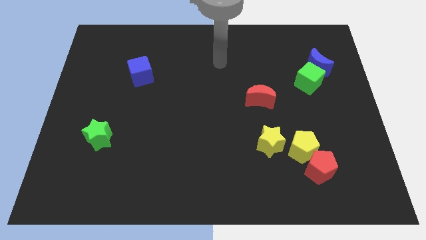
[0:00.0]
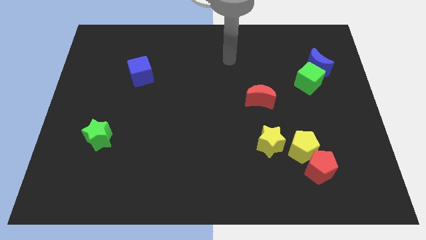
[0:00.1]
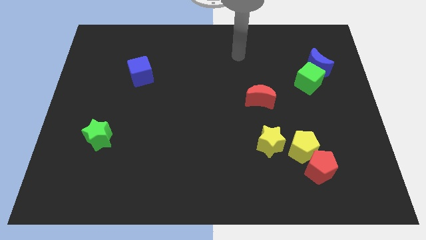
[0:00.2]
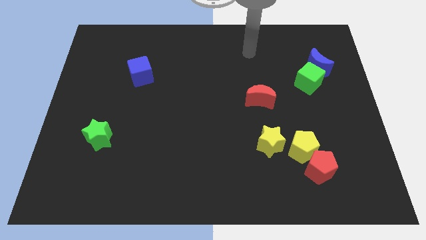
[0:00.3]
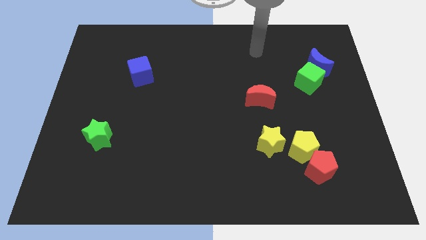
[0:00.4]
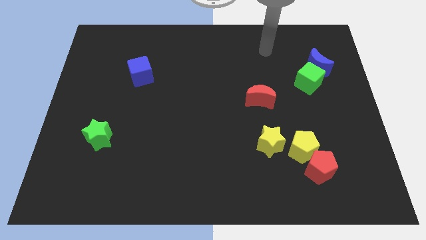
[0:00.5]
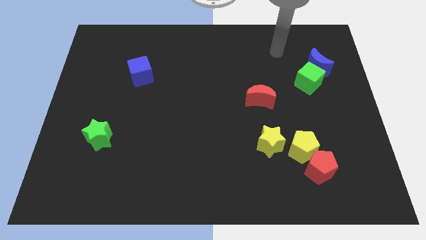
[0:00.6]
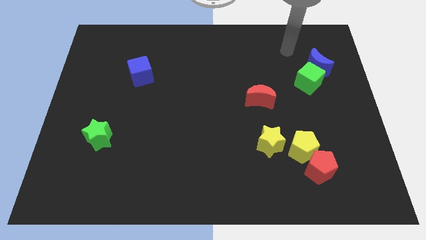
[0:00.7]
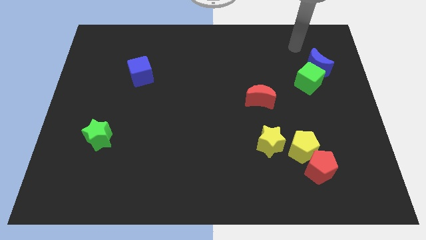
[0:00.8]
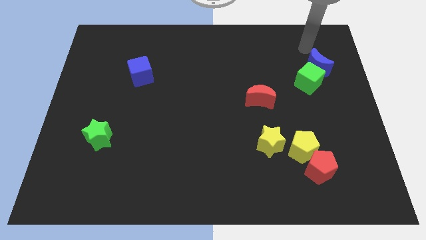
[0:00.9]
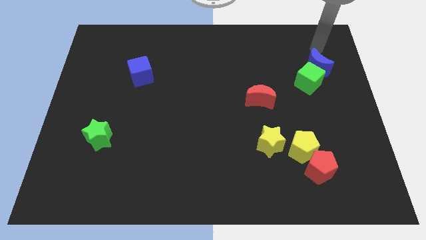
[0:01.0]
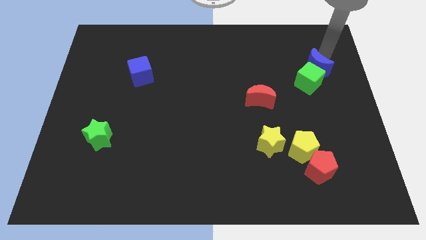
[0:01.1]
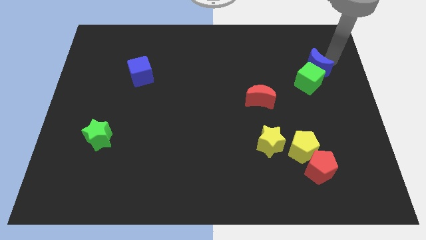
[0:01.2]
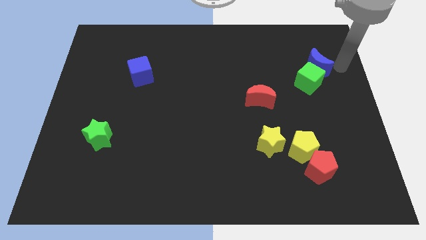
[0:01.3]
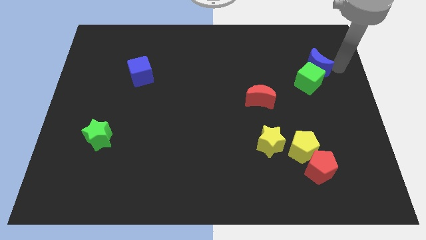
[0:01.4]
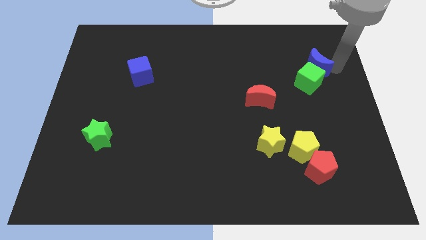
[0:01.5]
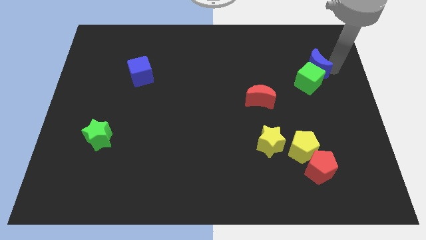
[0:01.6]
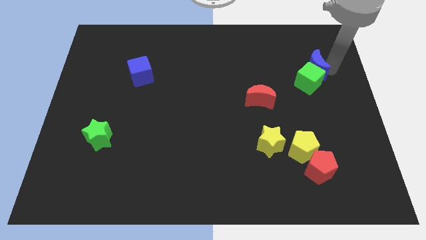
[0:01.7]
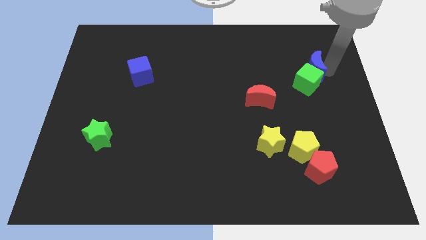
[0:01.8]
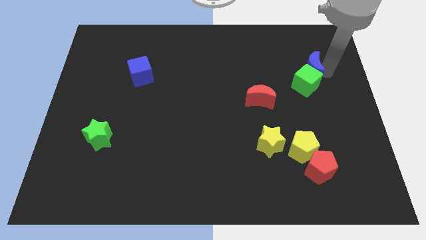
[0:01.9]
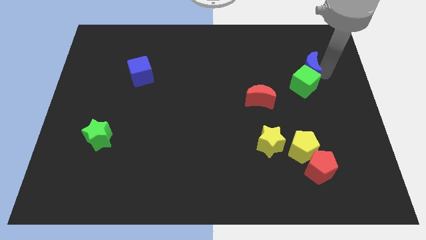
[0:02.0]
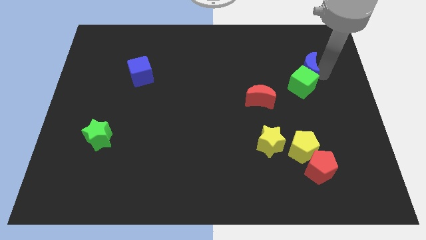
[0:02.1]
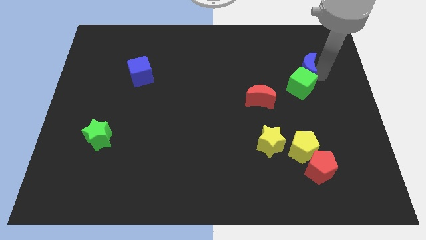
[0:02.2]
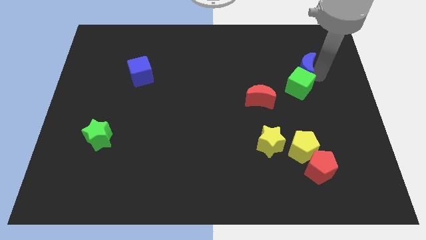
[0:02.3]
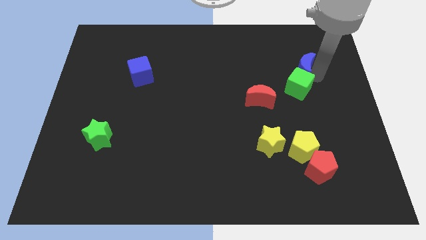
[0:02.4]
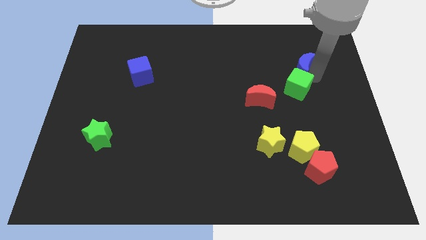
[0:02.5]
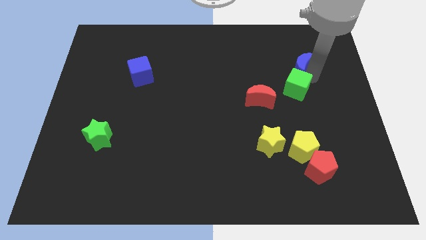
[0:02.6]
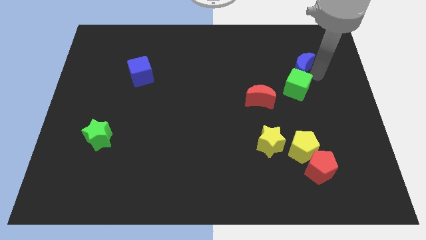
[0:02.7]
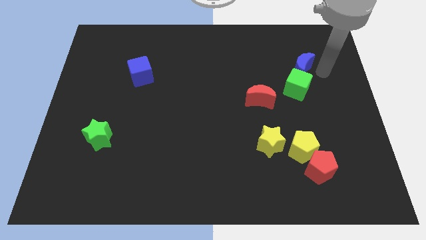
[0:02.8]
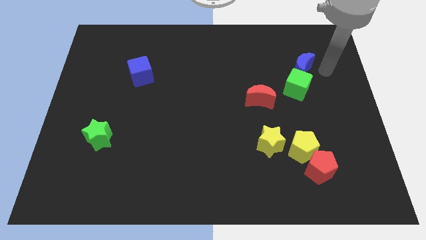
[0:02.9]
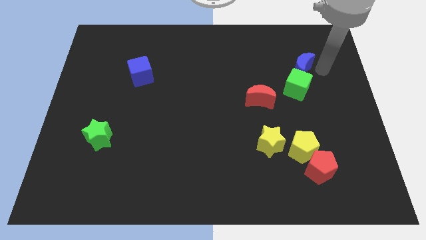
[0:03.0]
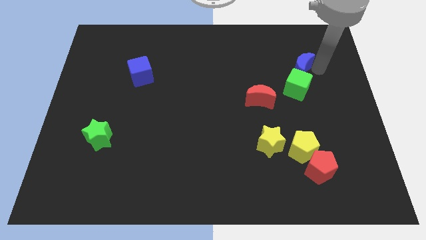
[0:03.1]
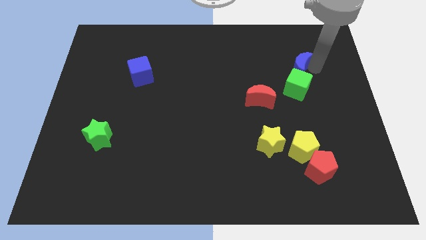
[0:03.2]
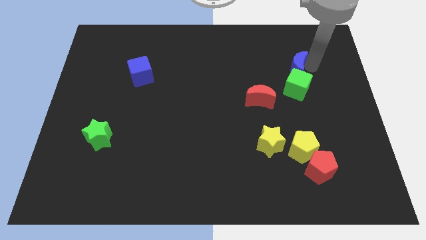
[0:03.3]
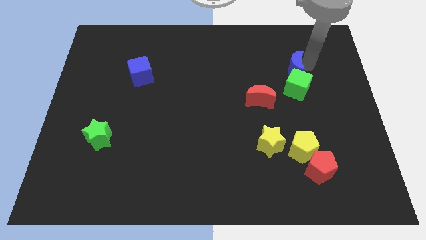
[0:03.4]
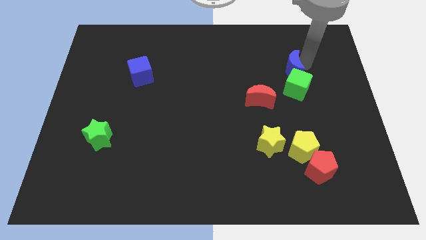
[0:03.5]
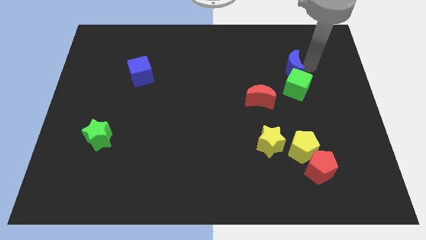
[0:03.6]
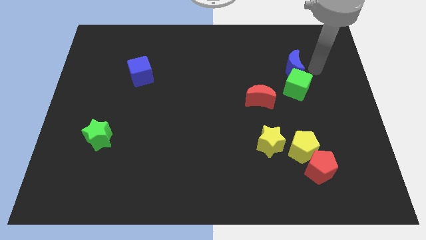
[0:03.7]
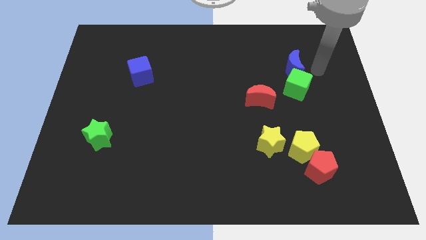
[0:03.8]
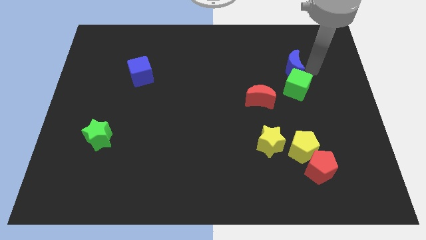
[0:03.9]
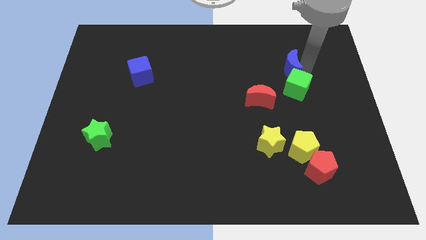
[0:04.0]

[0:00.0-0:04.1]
push the blue moon slightly to the left

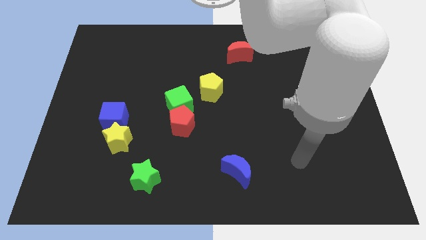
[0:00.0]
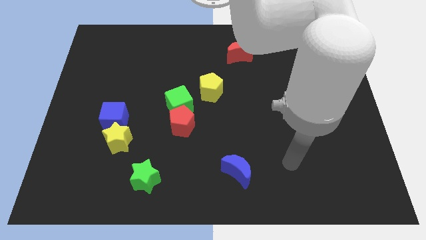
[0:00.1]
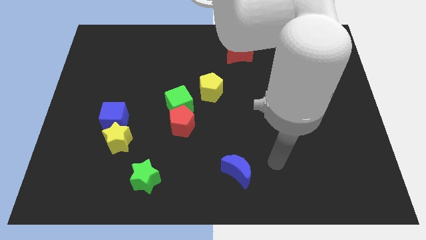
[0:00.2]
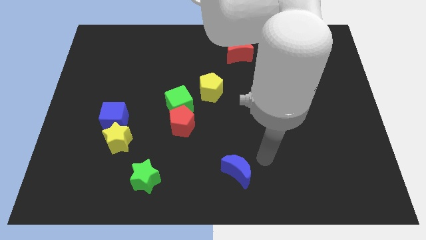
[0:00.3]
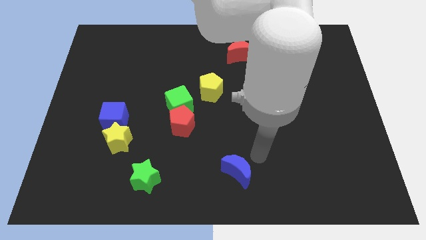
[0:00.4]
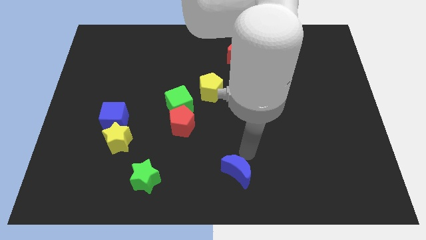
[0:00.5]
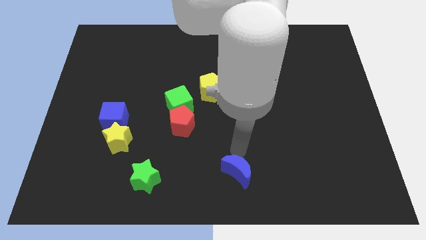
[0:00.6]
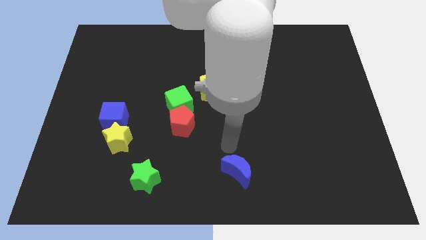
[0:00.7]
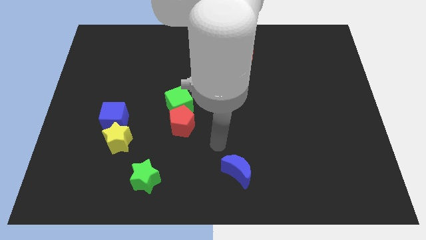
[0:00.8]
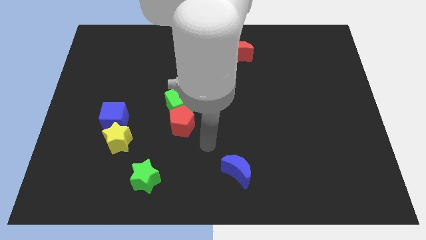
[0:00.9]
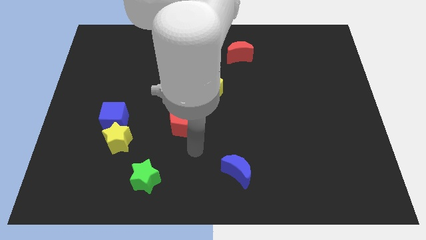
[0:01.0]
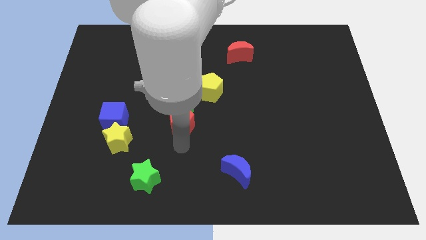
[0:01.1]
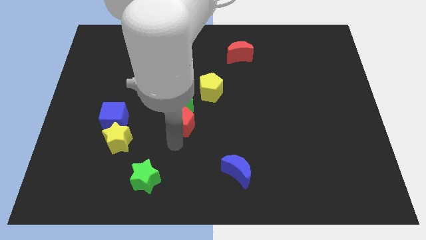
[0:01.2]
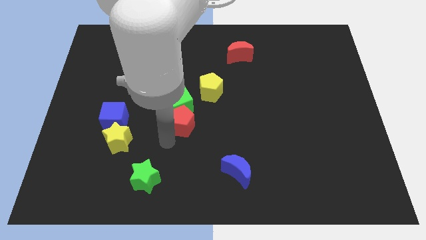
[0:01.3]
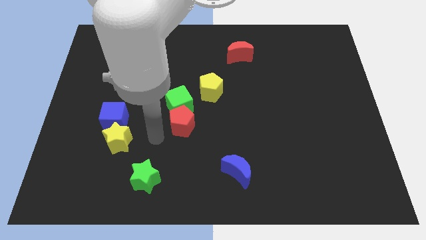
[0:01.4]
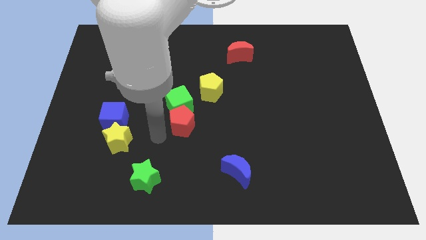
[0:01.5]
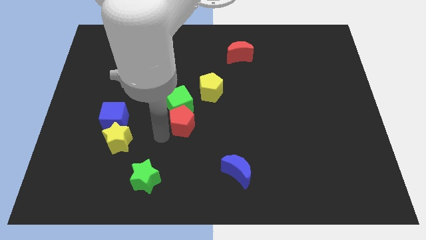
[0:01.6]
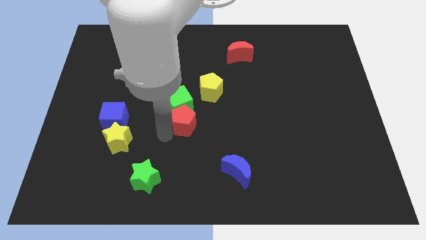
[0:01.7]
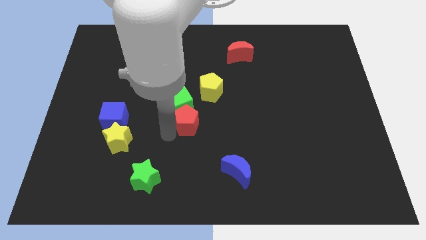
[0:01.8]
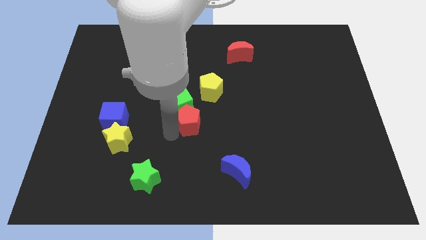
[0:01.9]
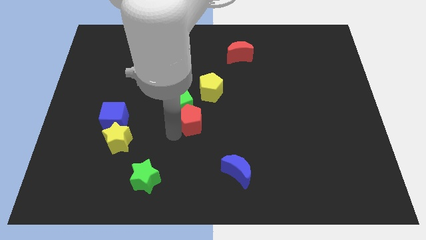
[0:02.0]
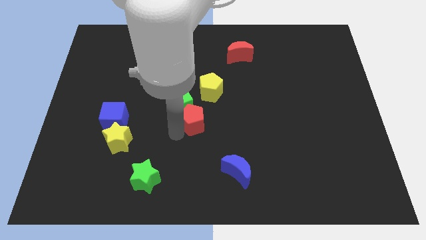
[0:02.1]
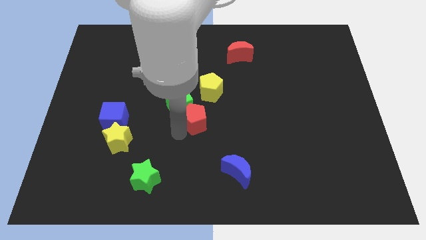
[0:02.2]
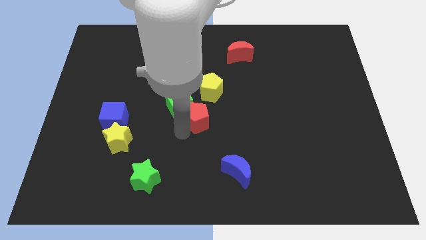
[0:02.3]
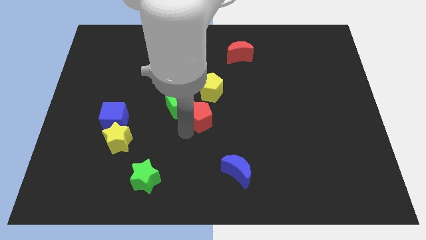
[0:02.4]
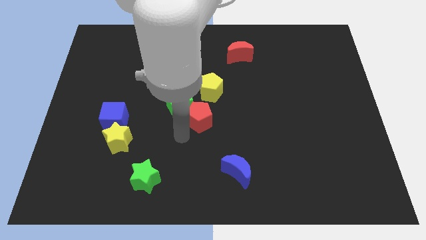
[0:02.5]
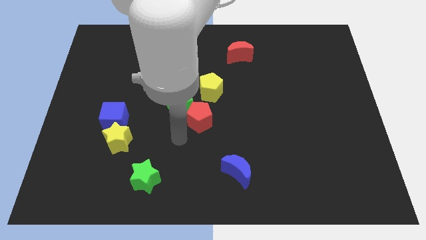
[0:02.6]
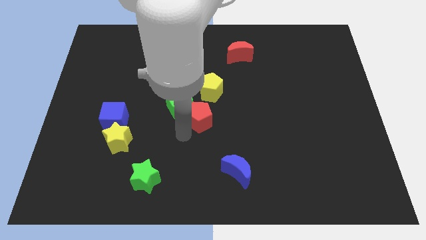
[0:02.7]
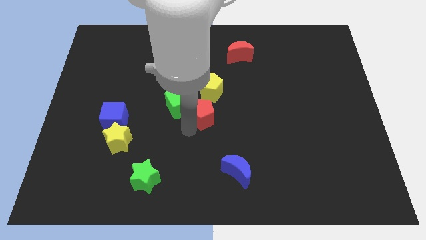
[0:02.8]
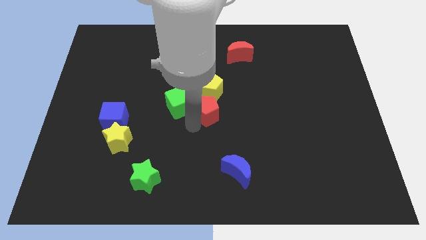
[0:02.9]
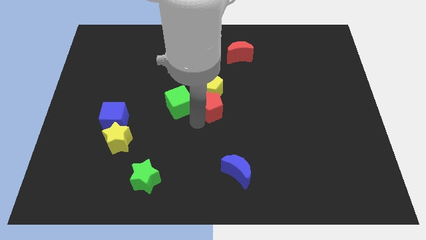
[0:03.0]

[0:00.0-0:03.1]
move the red pentagon slightly diagonally up and right

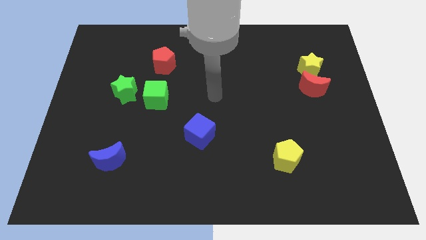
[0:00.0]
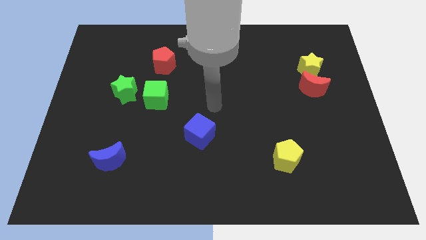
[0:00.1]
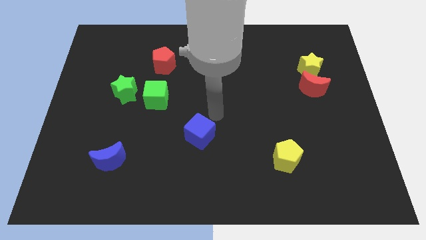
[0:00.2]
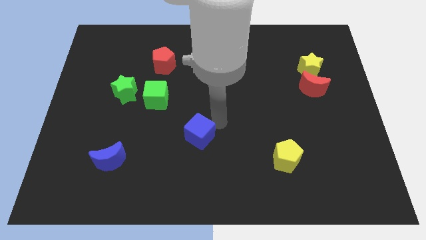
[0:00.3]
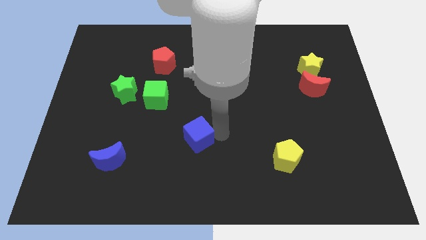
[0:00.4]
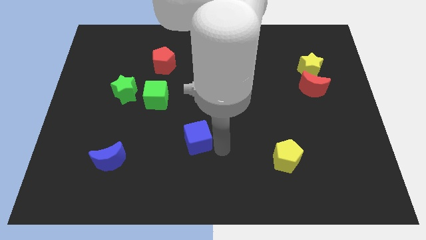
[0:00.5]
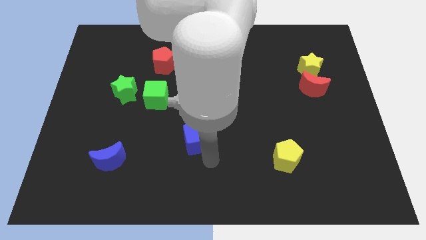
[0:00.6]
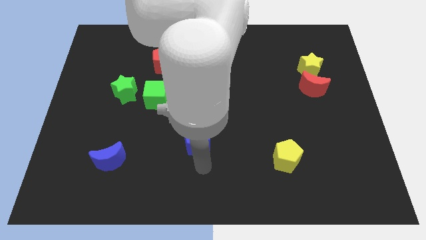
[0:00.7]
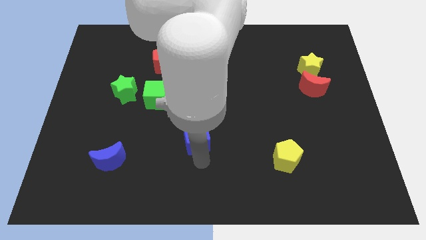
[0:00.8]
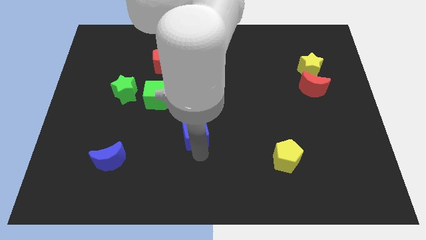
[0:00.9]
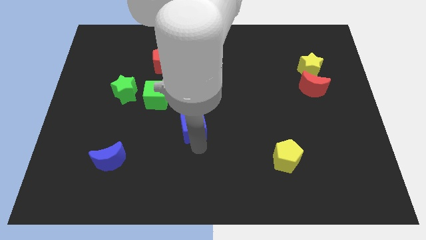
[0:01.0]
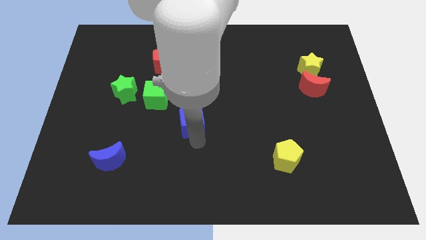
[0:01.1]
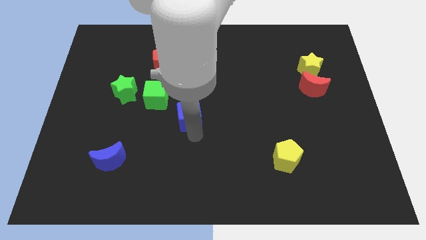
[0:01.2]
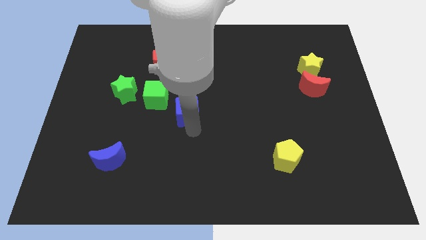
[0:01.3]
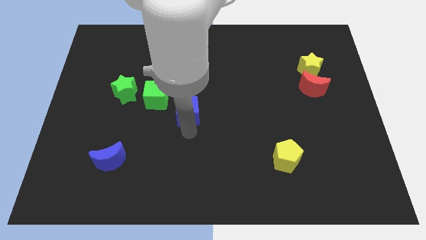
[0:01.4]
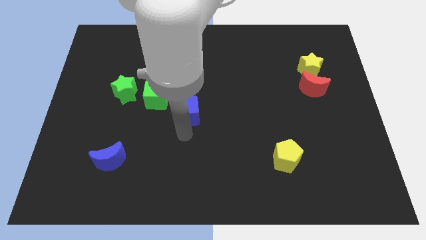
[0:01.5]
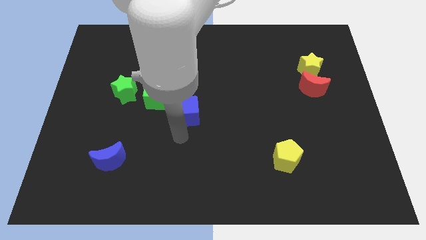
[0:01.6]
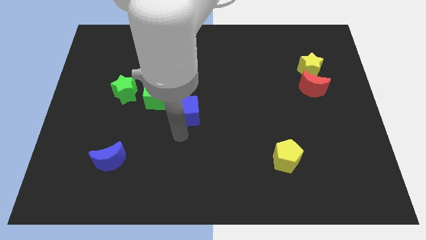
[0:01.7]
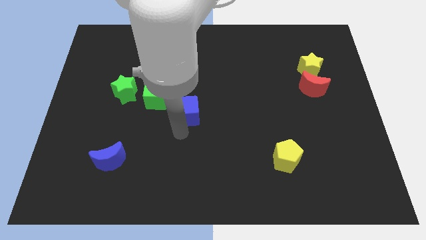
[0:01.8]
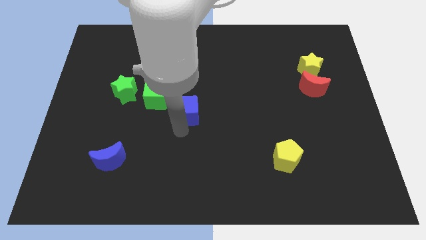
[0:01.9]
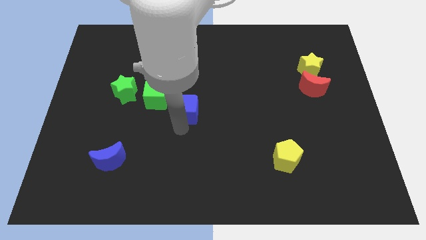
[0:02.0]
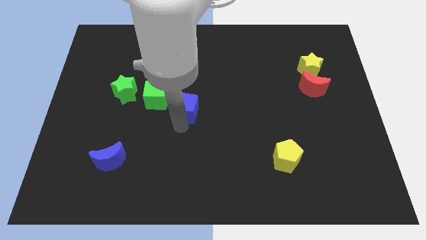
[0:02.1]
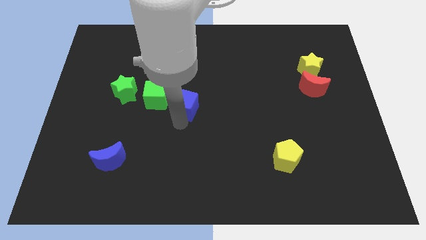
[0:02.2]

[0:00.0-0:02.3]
slide the blue cube slightly up
